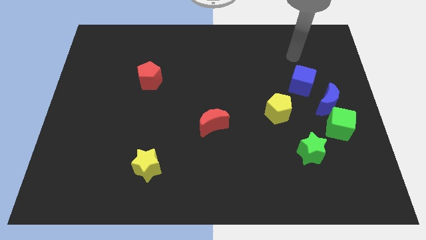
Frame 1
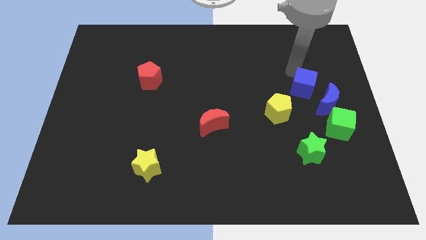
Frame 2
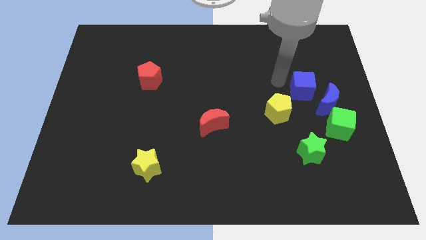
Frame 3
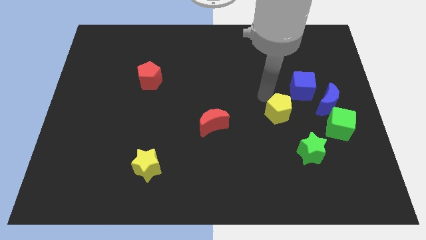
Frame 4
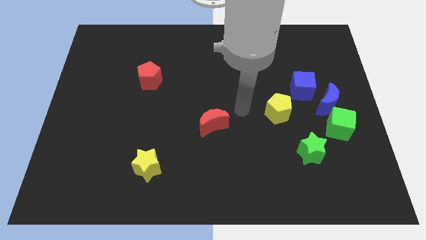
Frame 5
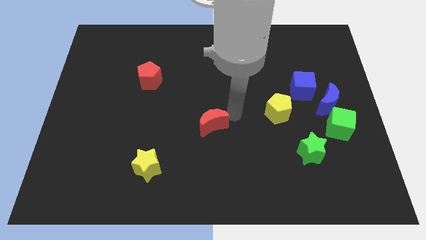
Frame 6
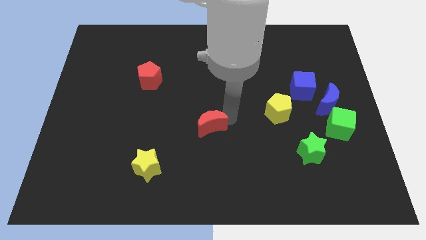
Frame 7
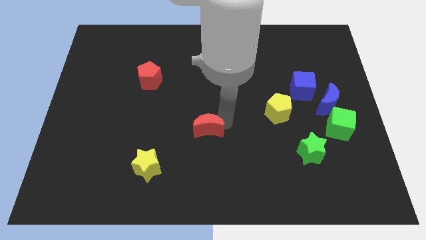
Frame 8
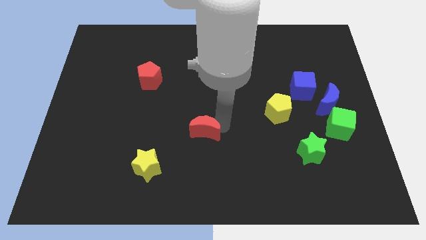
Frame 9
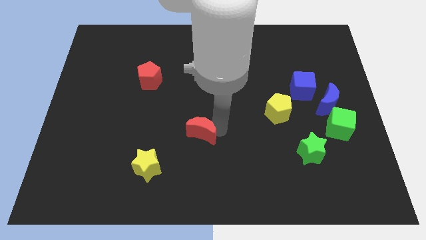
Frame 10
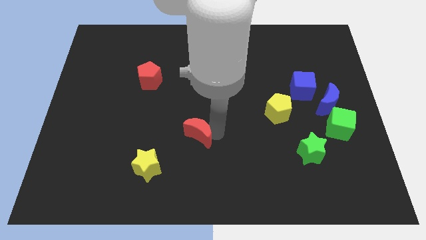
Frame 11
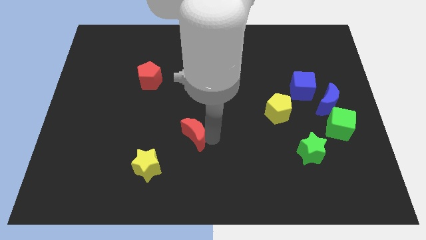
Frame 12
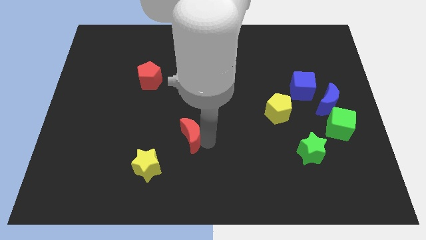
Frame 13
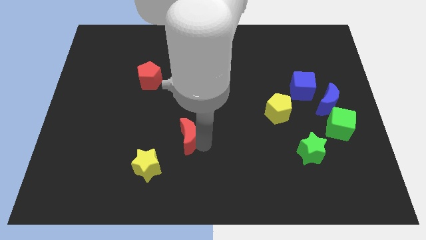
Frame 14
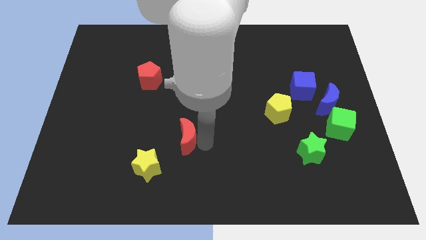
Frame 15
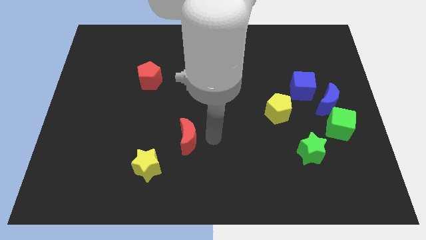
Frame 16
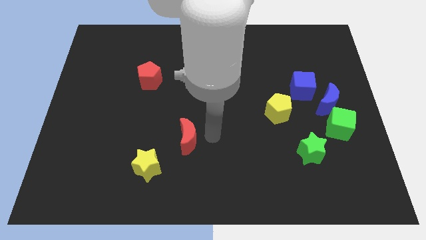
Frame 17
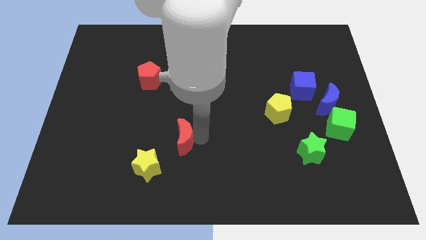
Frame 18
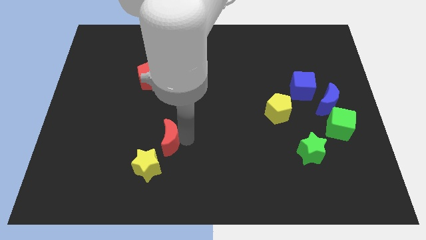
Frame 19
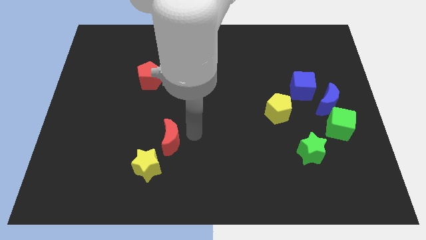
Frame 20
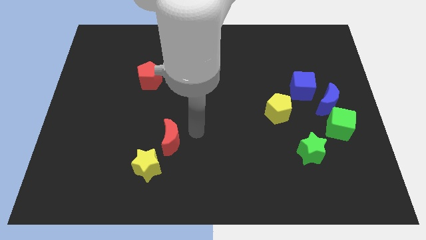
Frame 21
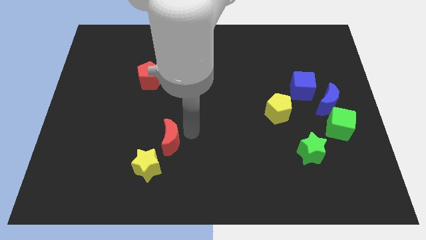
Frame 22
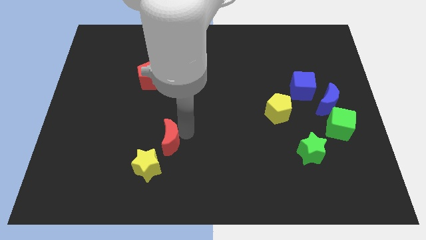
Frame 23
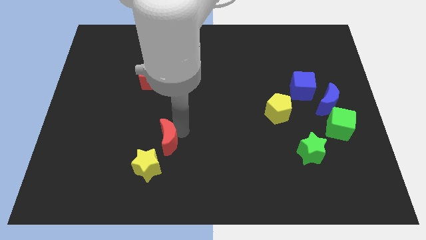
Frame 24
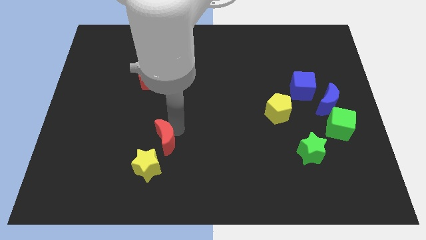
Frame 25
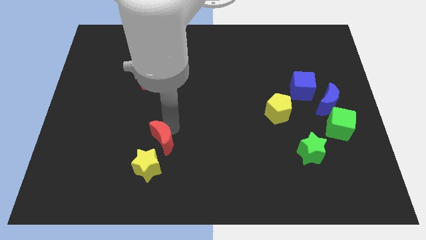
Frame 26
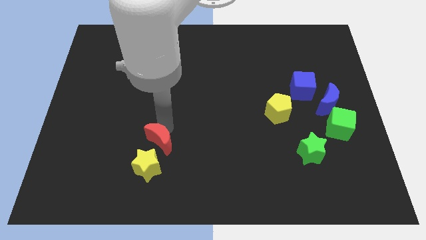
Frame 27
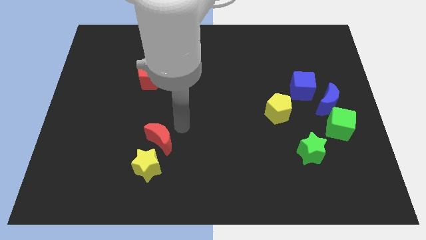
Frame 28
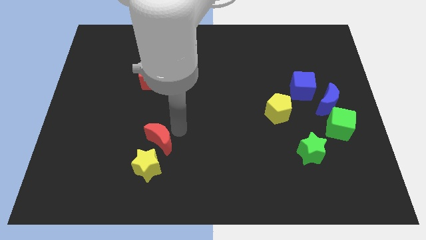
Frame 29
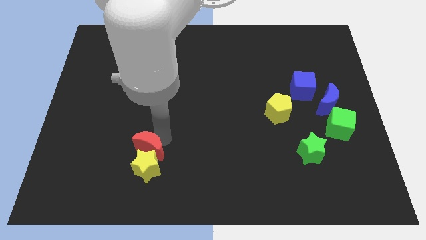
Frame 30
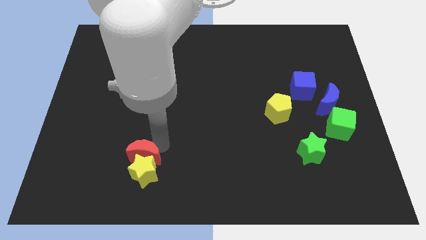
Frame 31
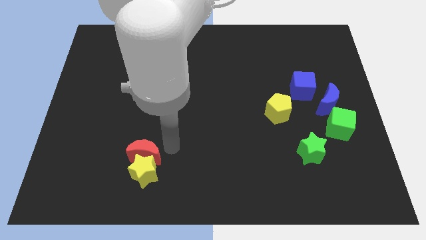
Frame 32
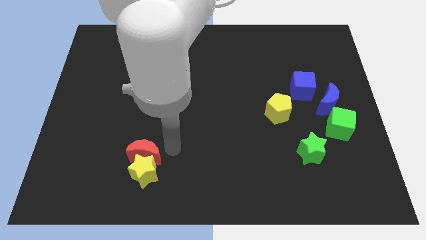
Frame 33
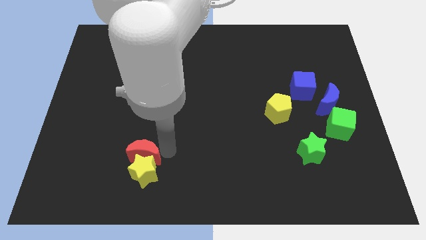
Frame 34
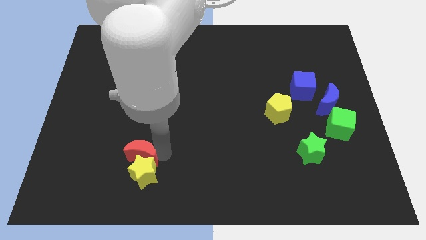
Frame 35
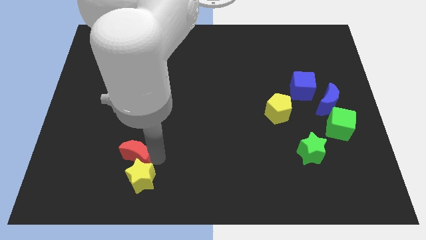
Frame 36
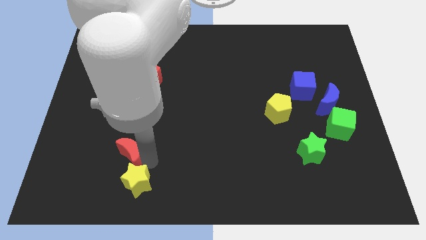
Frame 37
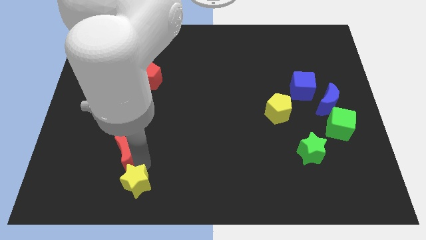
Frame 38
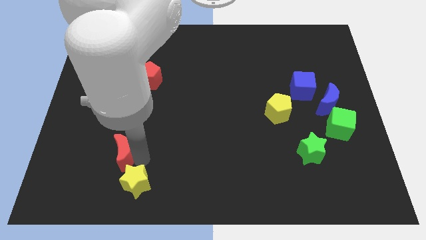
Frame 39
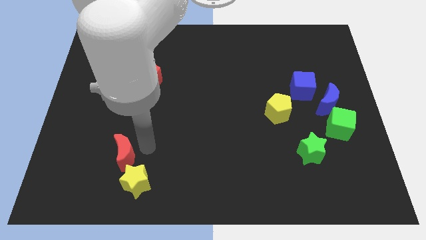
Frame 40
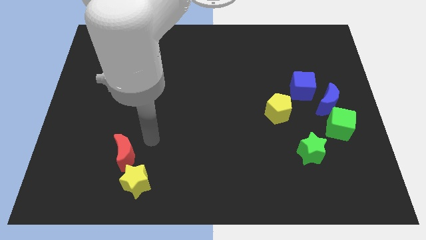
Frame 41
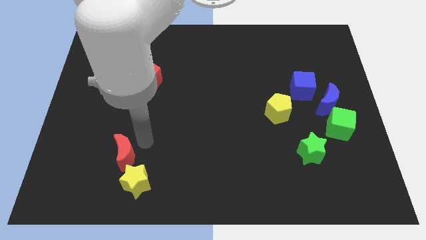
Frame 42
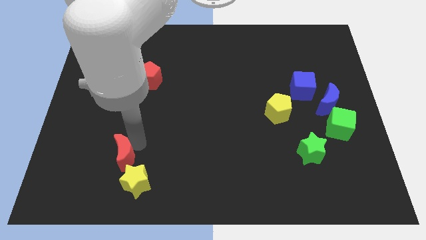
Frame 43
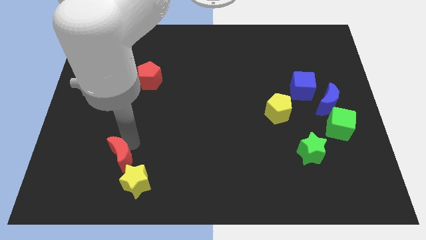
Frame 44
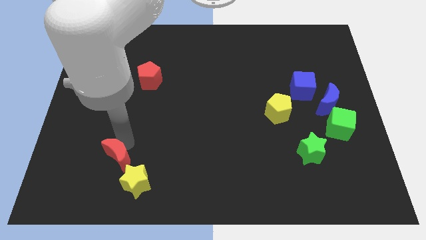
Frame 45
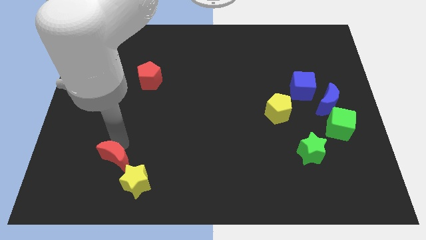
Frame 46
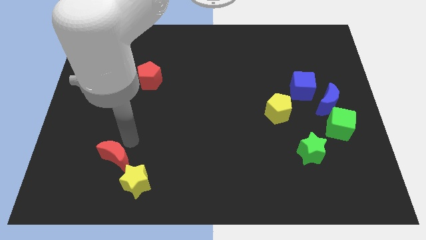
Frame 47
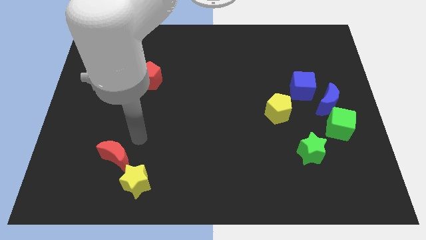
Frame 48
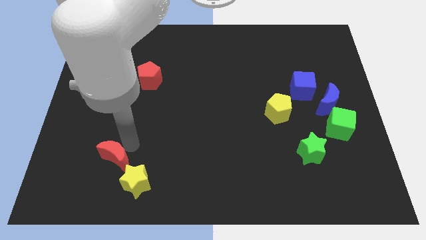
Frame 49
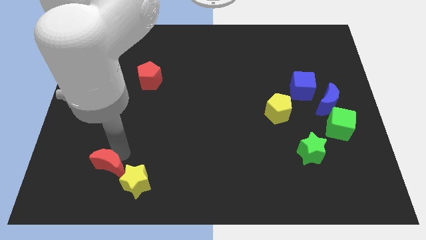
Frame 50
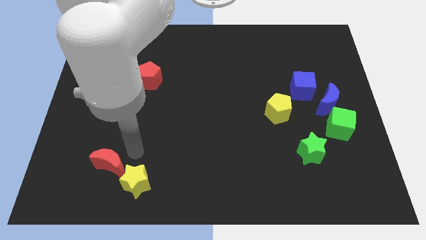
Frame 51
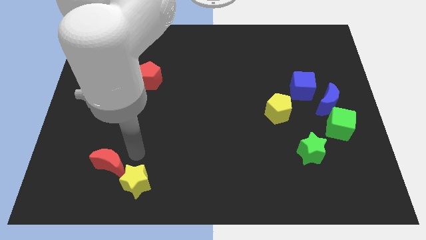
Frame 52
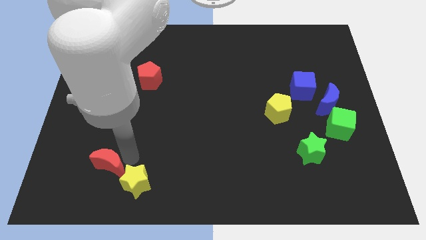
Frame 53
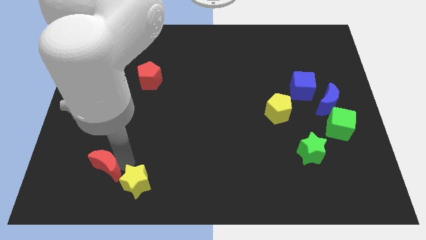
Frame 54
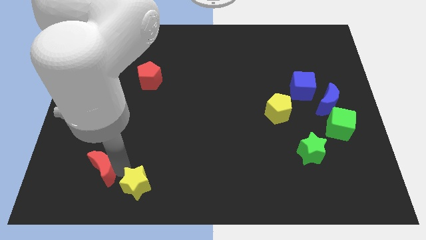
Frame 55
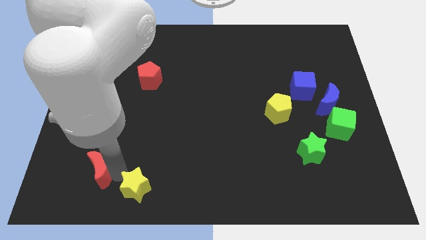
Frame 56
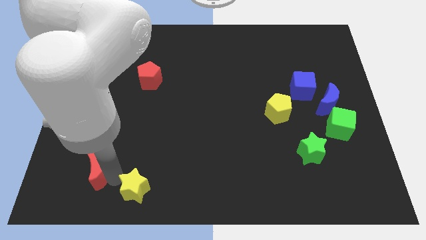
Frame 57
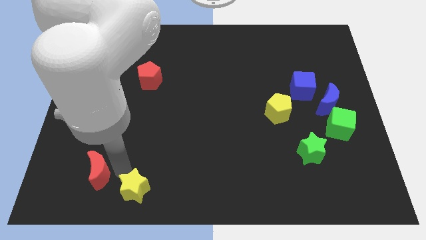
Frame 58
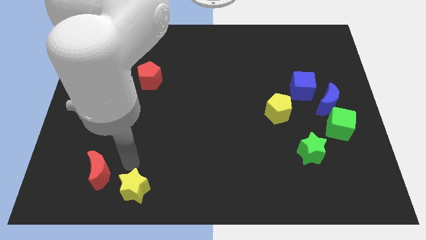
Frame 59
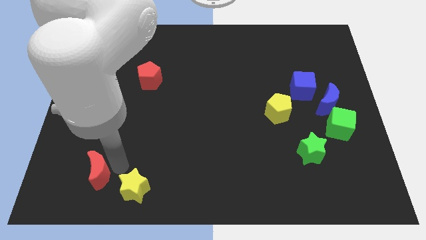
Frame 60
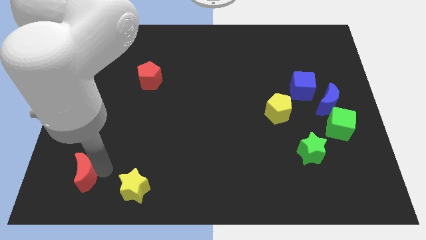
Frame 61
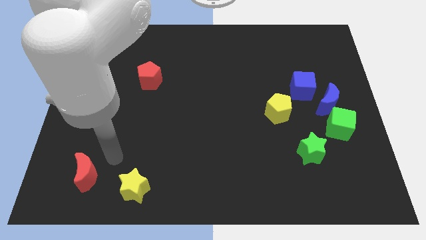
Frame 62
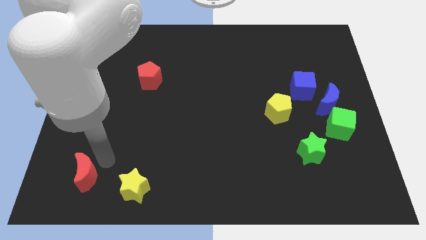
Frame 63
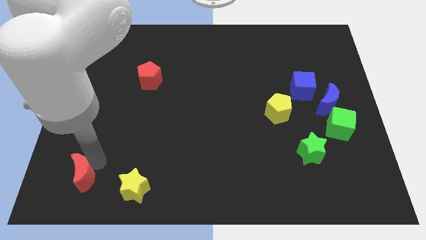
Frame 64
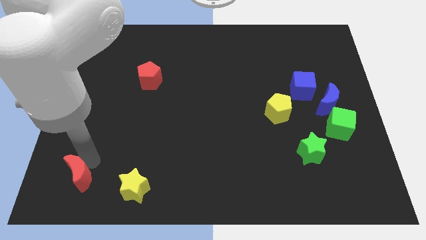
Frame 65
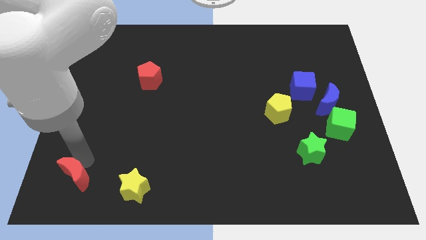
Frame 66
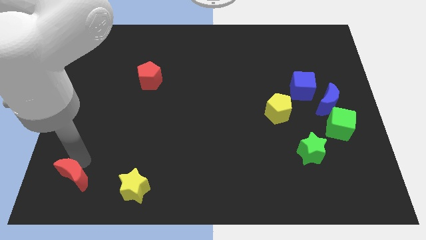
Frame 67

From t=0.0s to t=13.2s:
move the red moon to the bottom left corner
